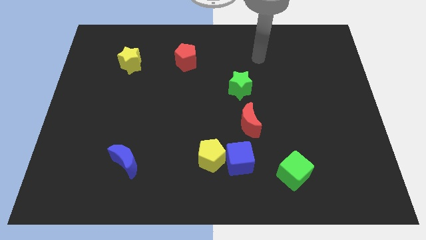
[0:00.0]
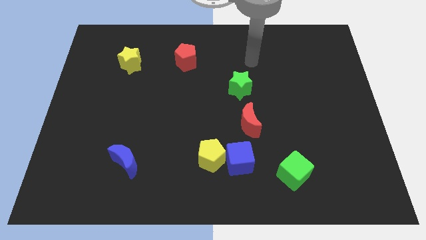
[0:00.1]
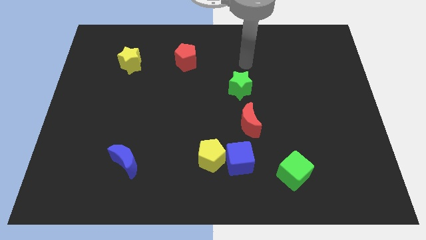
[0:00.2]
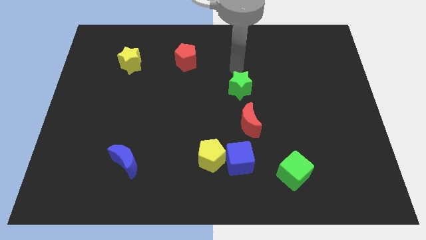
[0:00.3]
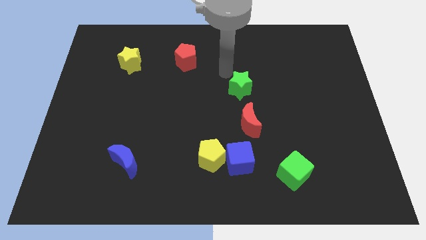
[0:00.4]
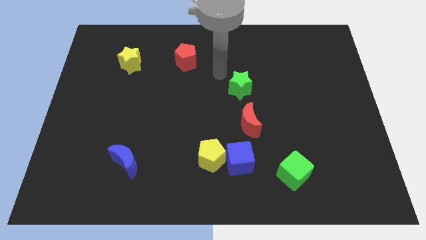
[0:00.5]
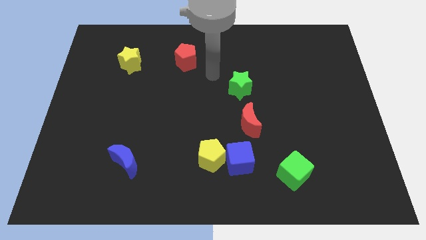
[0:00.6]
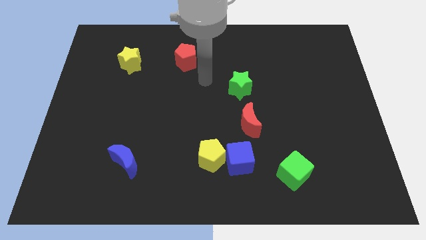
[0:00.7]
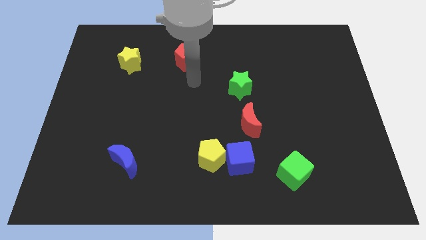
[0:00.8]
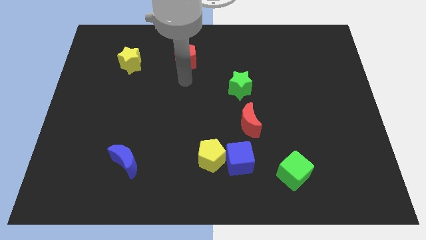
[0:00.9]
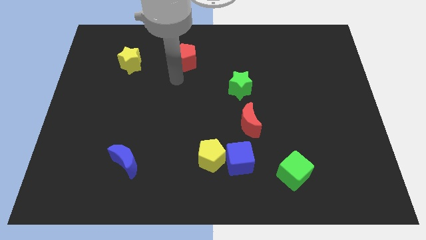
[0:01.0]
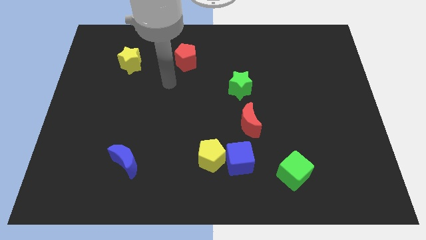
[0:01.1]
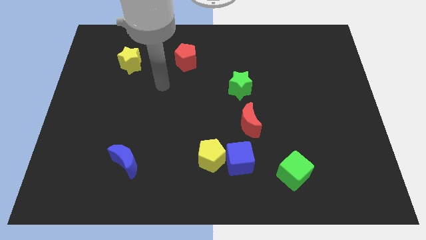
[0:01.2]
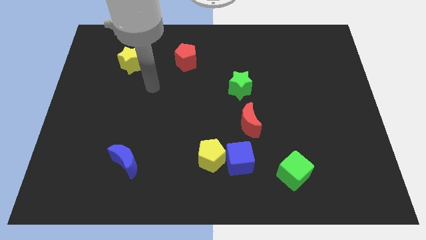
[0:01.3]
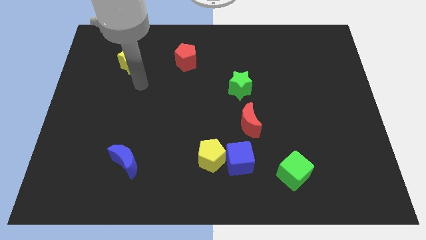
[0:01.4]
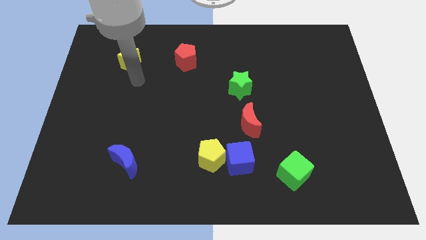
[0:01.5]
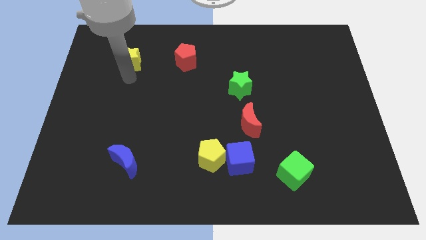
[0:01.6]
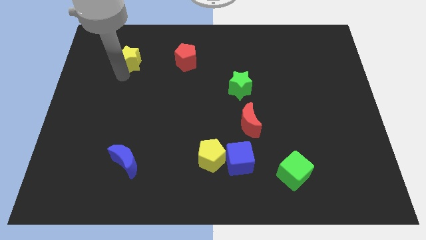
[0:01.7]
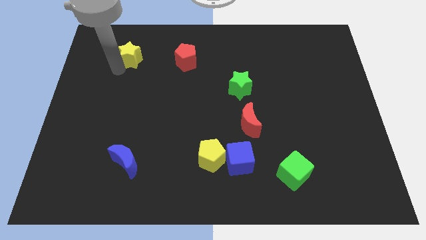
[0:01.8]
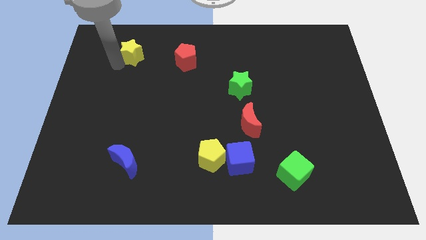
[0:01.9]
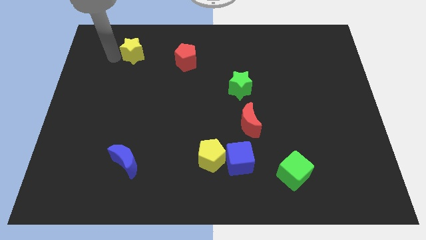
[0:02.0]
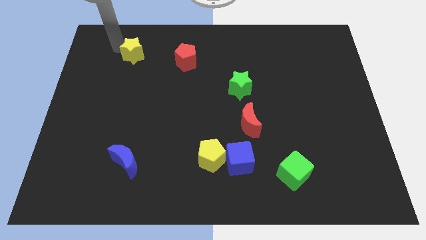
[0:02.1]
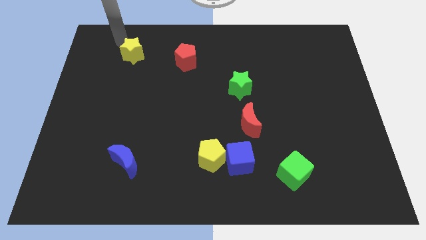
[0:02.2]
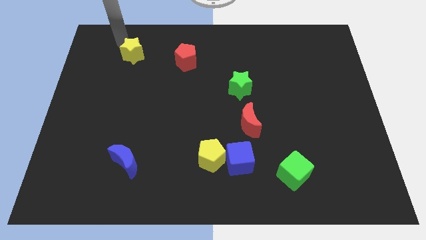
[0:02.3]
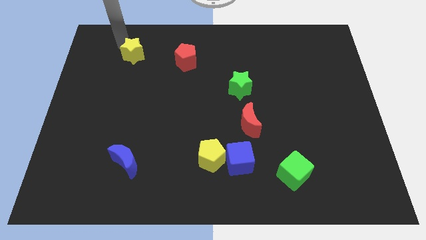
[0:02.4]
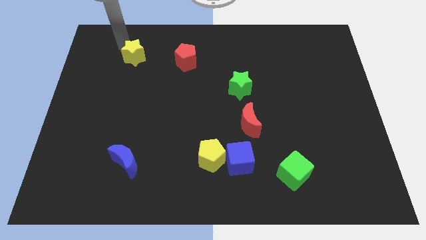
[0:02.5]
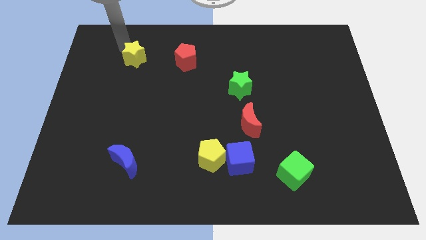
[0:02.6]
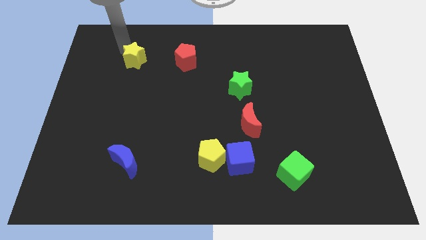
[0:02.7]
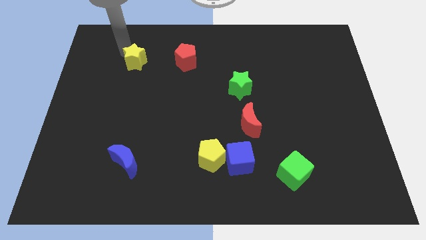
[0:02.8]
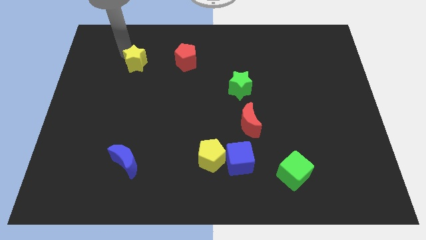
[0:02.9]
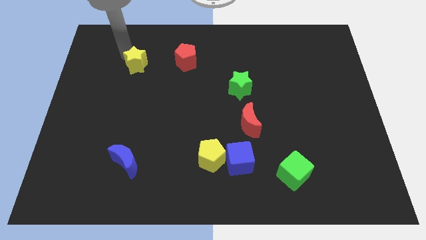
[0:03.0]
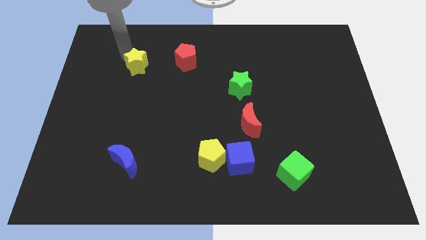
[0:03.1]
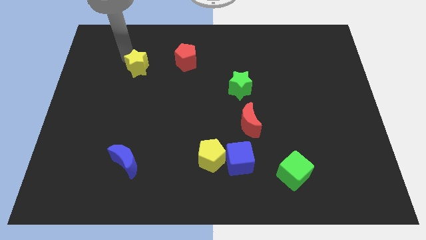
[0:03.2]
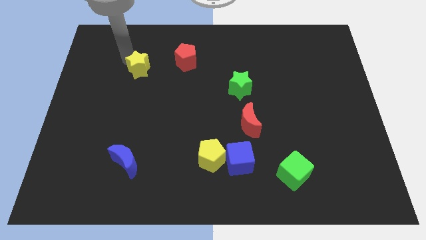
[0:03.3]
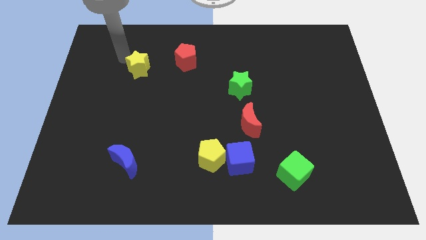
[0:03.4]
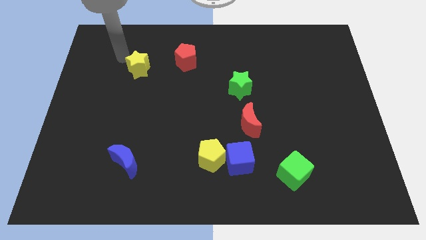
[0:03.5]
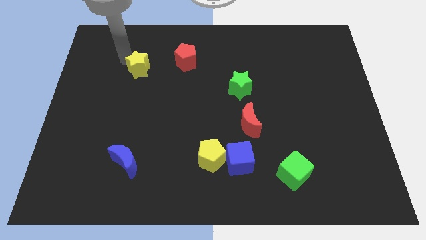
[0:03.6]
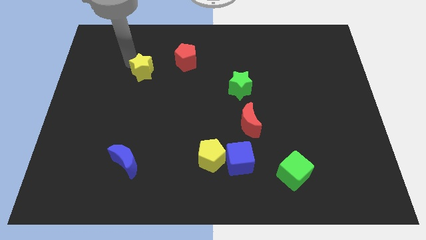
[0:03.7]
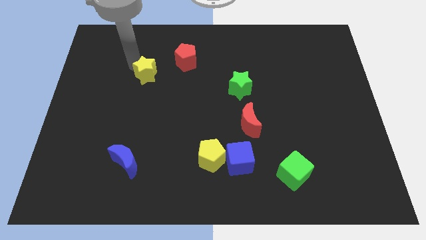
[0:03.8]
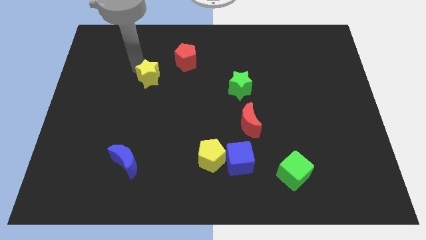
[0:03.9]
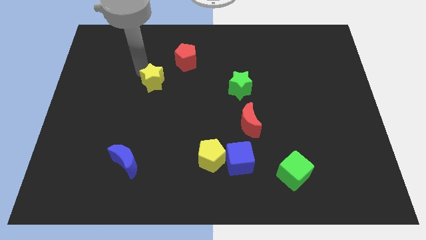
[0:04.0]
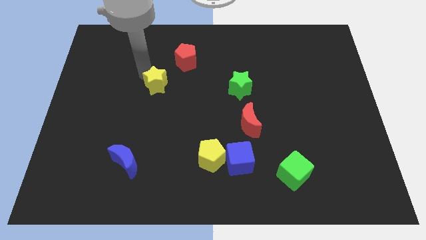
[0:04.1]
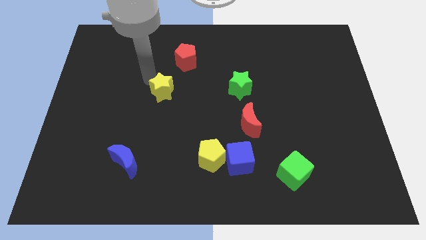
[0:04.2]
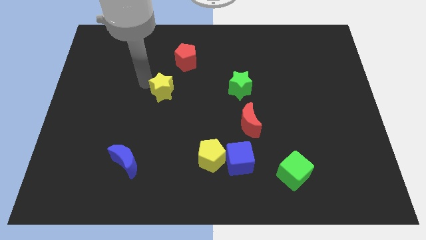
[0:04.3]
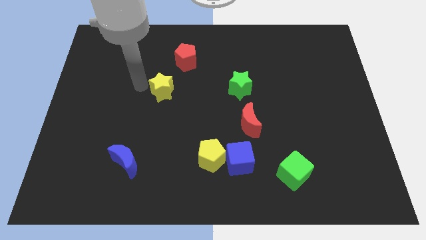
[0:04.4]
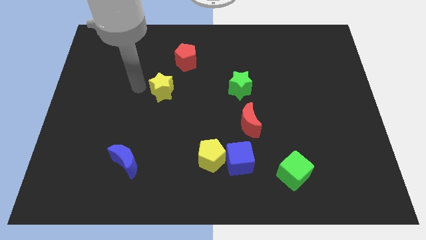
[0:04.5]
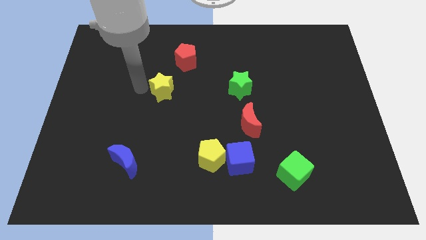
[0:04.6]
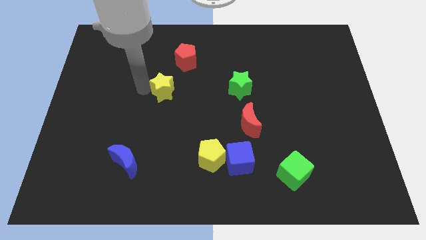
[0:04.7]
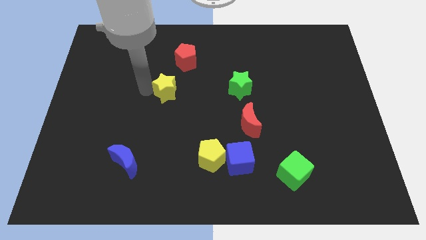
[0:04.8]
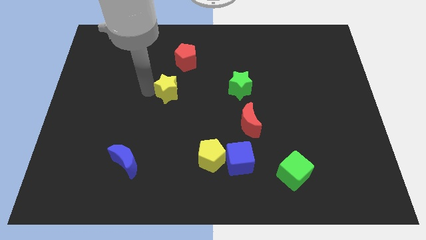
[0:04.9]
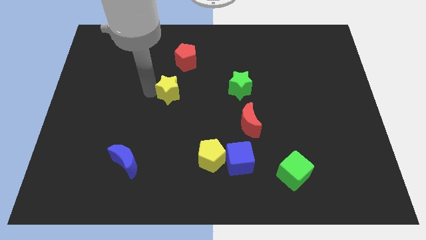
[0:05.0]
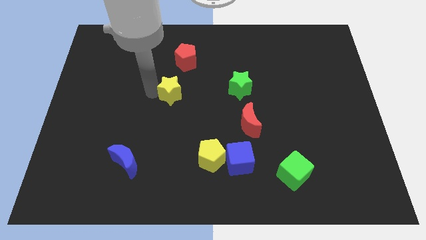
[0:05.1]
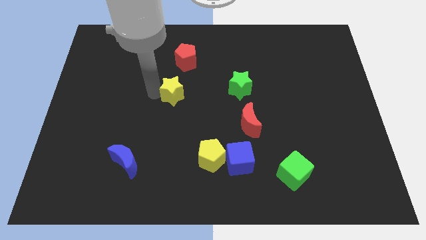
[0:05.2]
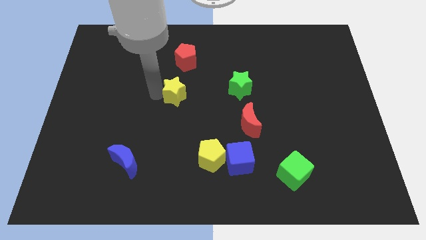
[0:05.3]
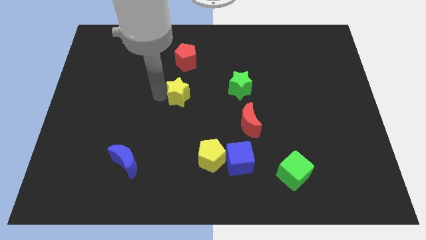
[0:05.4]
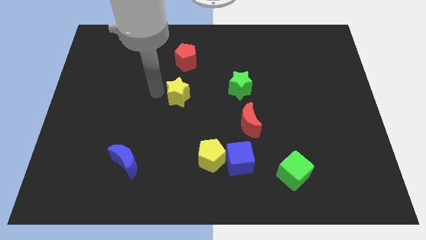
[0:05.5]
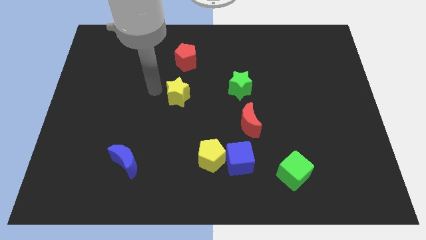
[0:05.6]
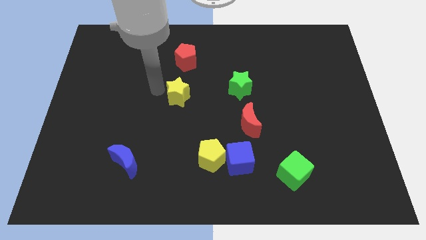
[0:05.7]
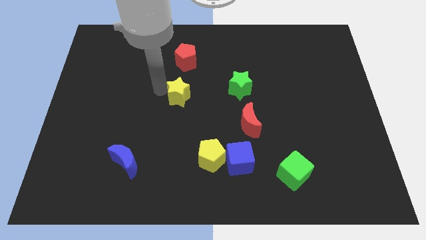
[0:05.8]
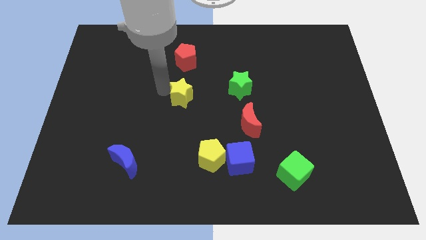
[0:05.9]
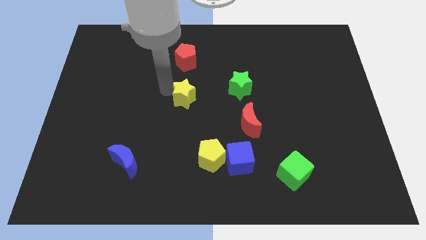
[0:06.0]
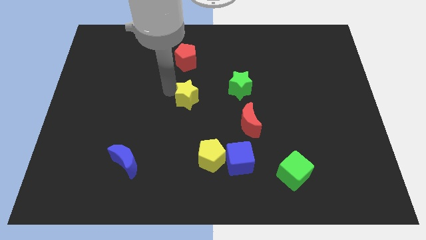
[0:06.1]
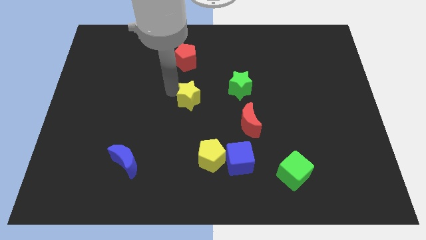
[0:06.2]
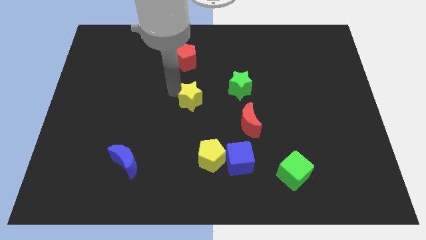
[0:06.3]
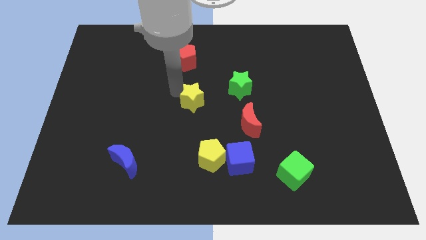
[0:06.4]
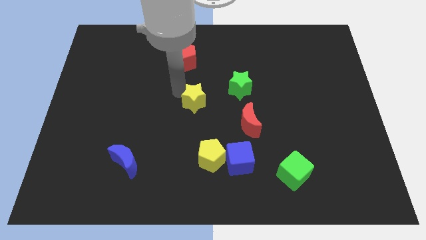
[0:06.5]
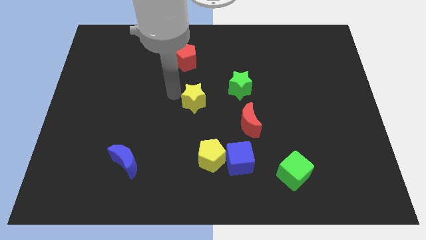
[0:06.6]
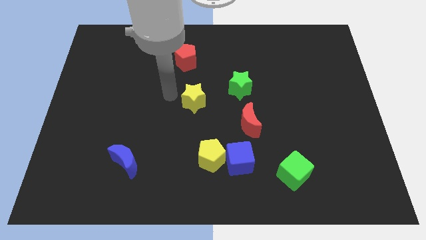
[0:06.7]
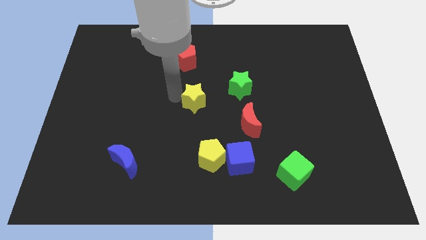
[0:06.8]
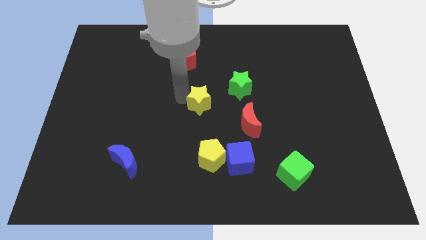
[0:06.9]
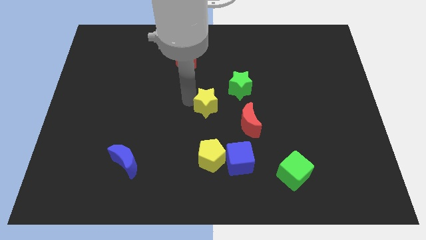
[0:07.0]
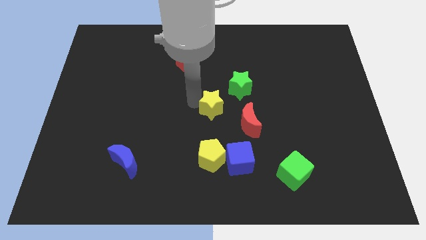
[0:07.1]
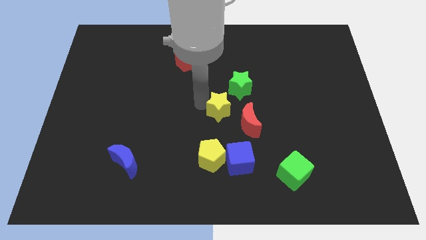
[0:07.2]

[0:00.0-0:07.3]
put the yellow star above the blue cube
